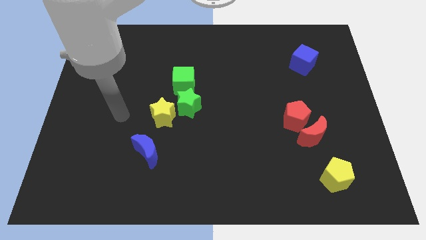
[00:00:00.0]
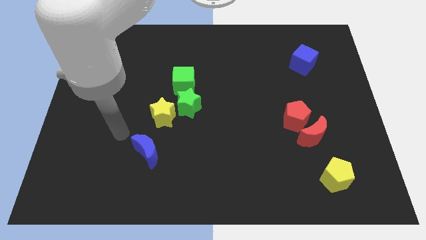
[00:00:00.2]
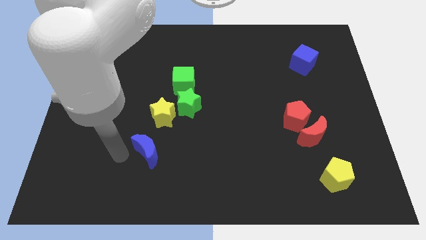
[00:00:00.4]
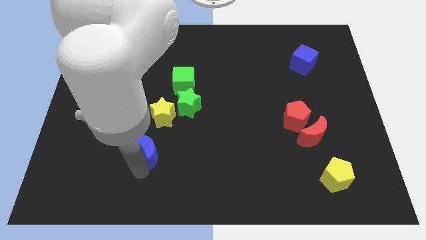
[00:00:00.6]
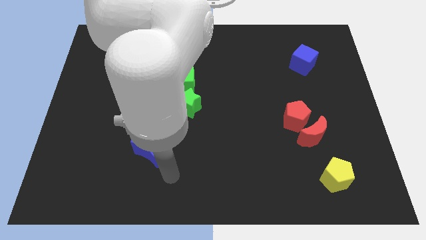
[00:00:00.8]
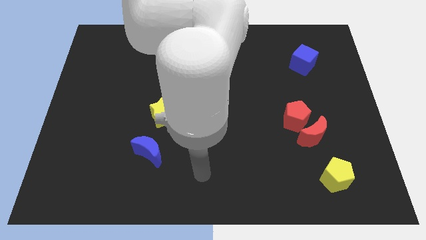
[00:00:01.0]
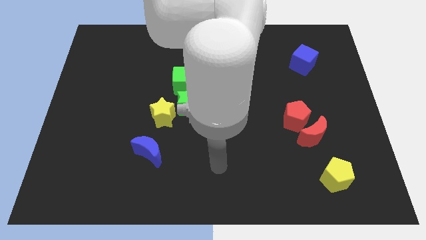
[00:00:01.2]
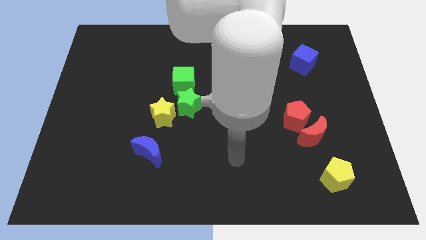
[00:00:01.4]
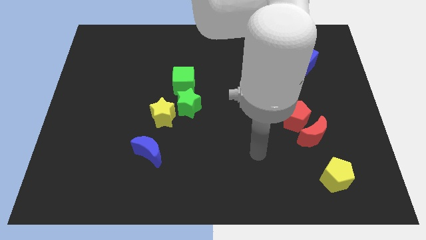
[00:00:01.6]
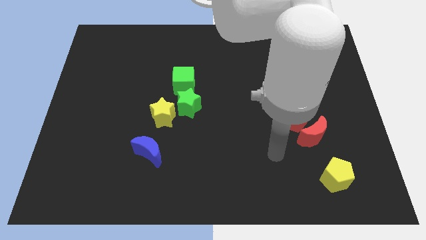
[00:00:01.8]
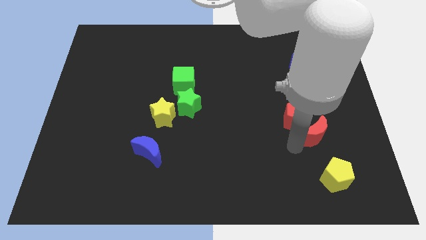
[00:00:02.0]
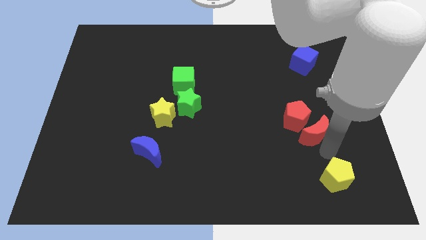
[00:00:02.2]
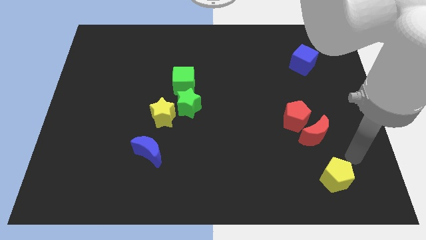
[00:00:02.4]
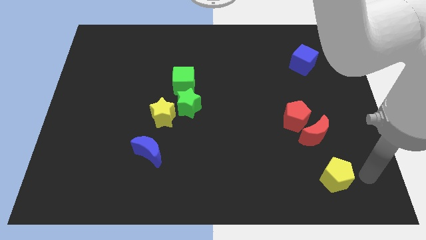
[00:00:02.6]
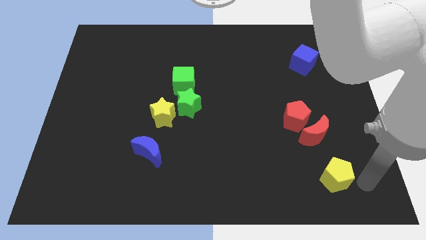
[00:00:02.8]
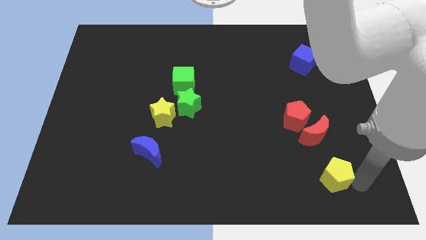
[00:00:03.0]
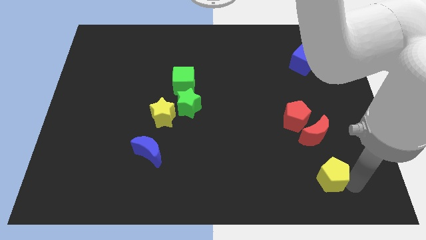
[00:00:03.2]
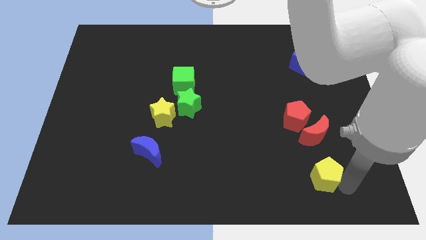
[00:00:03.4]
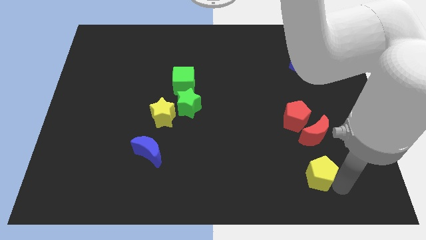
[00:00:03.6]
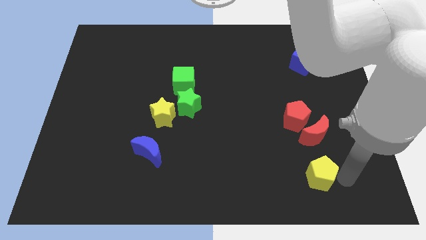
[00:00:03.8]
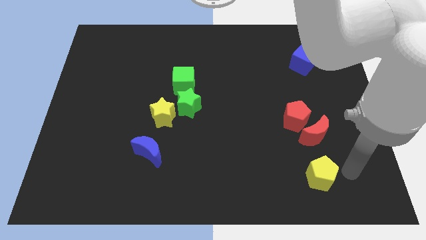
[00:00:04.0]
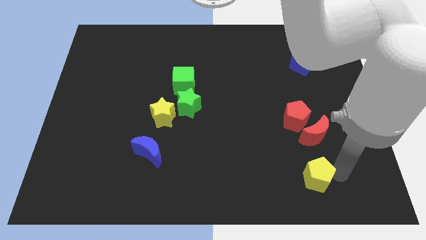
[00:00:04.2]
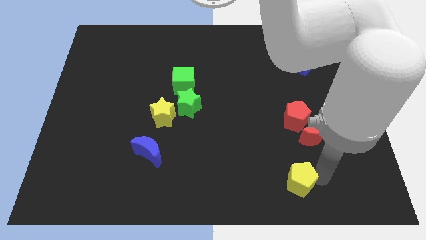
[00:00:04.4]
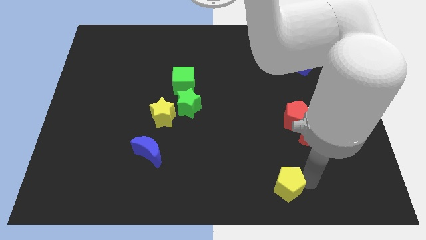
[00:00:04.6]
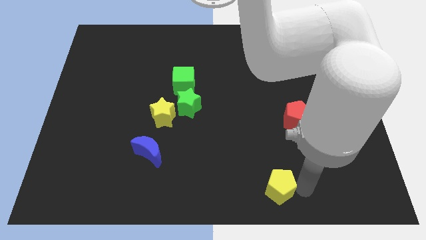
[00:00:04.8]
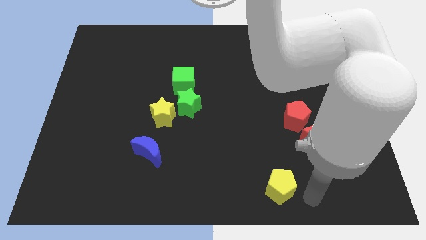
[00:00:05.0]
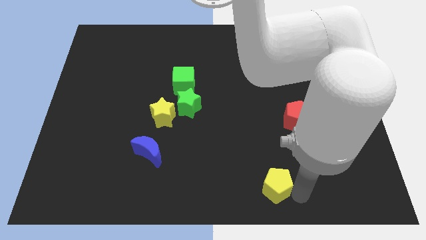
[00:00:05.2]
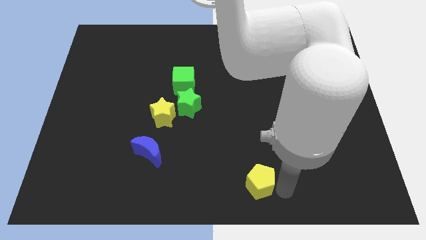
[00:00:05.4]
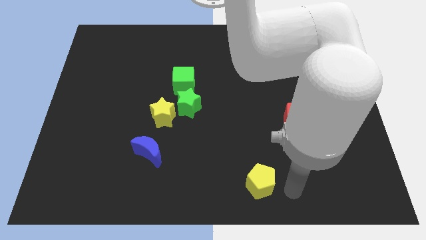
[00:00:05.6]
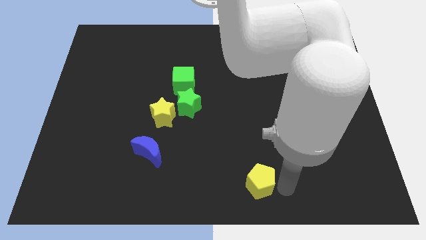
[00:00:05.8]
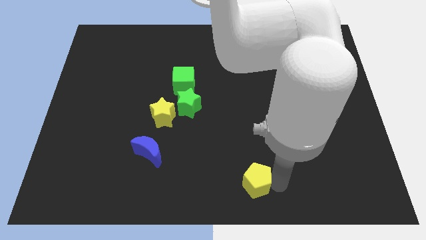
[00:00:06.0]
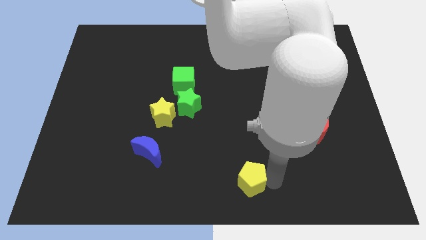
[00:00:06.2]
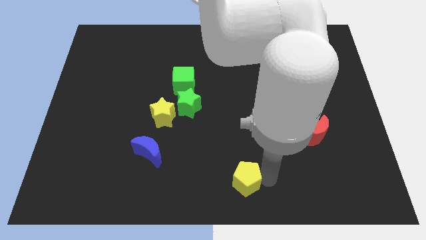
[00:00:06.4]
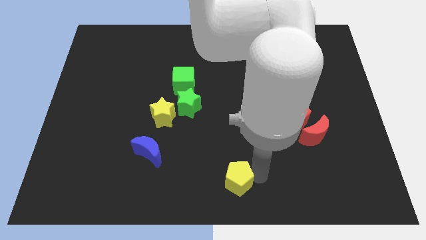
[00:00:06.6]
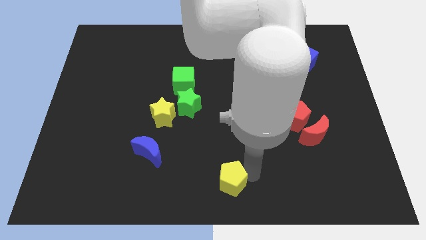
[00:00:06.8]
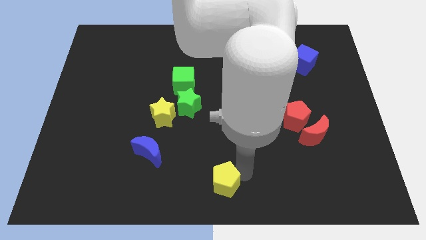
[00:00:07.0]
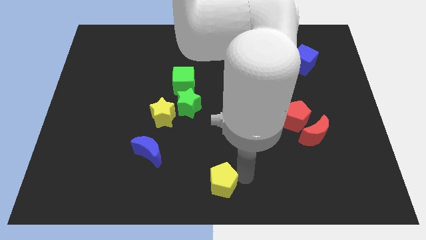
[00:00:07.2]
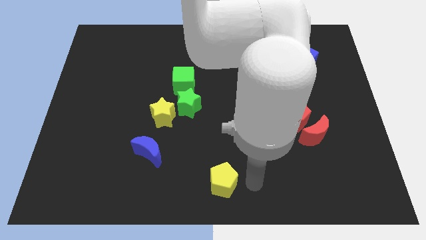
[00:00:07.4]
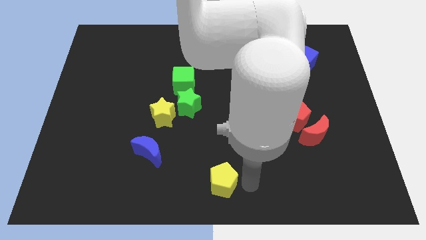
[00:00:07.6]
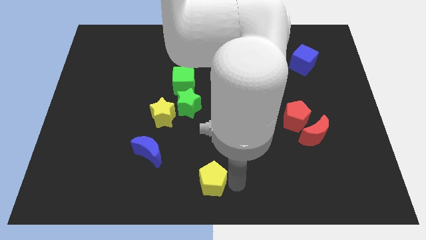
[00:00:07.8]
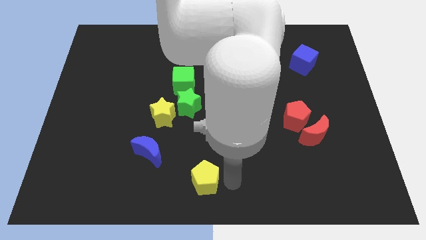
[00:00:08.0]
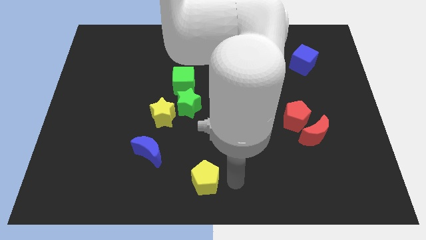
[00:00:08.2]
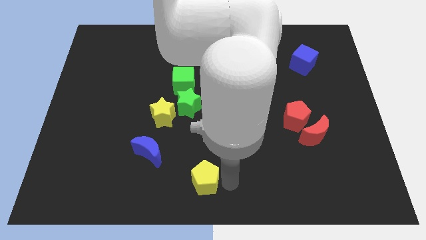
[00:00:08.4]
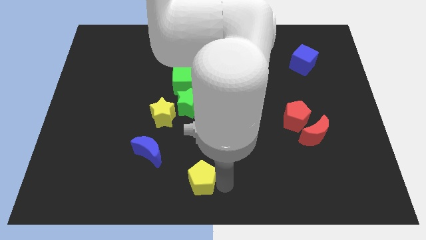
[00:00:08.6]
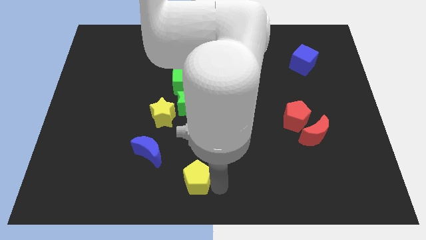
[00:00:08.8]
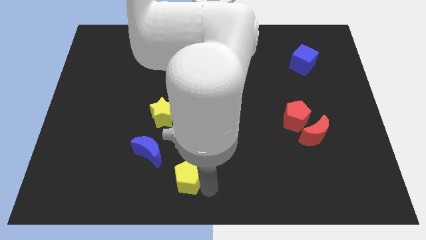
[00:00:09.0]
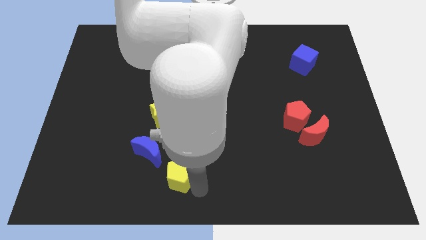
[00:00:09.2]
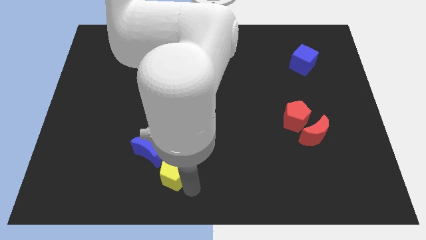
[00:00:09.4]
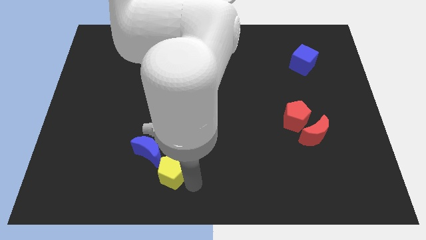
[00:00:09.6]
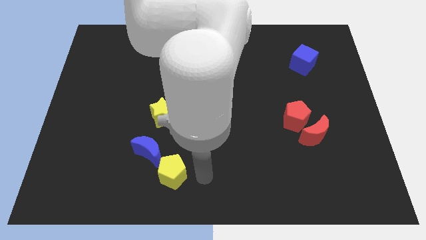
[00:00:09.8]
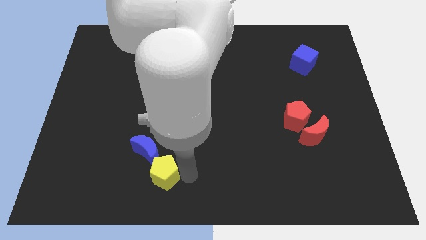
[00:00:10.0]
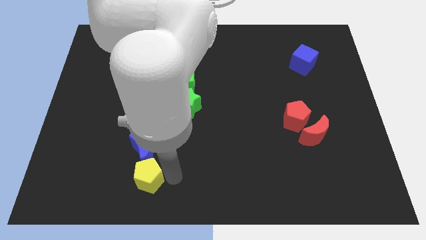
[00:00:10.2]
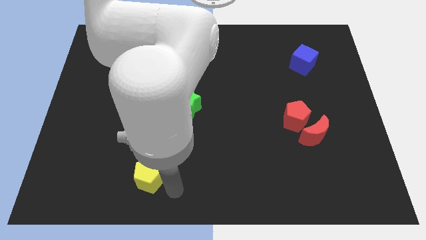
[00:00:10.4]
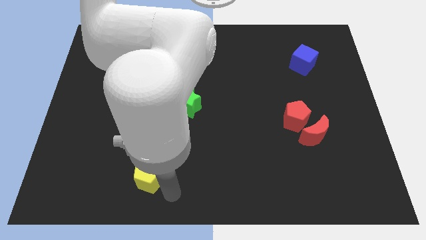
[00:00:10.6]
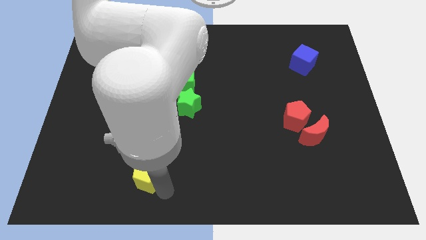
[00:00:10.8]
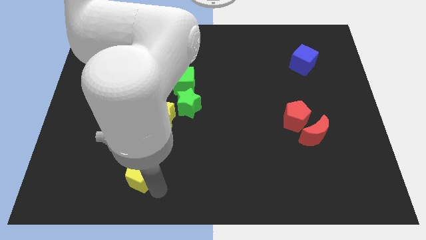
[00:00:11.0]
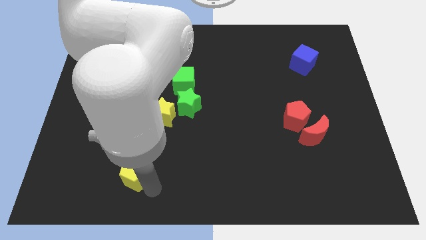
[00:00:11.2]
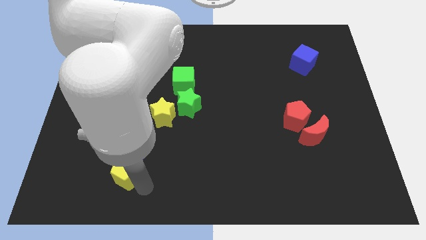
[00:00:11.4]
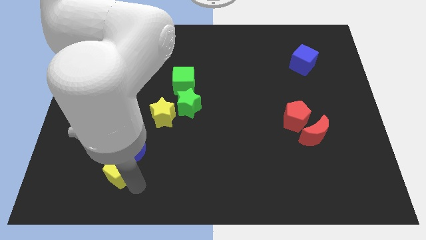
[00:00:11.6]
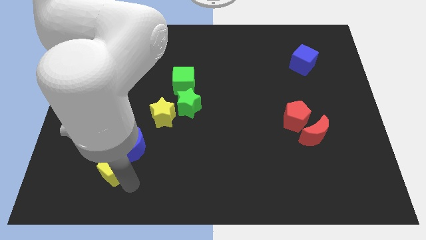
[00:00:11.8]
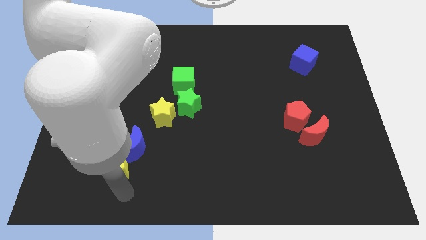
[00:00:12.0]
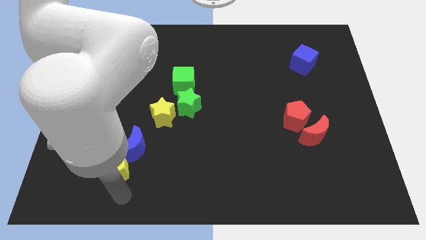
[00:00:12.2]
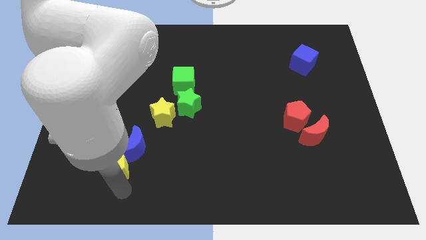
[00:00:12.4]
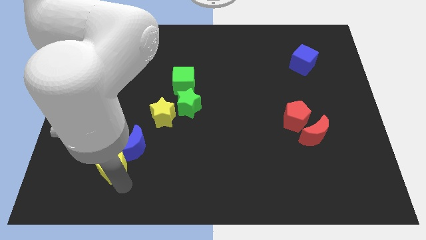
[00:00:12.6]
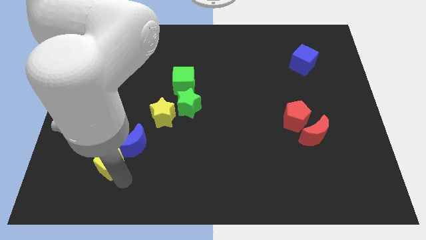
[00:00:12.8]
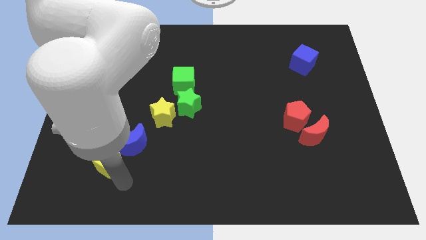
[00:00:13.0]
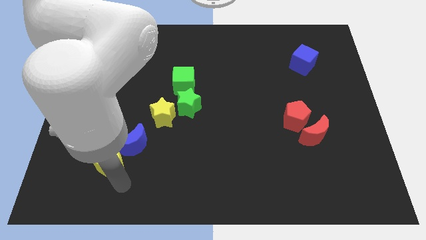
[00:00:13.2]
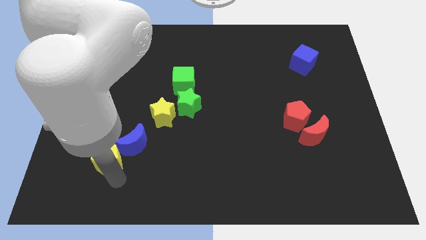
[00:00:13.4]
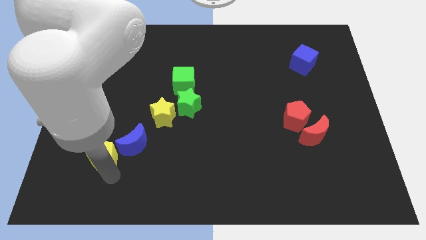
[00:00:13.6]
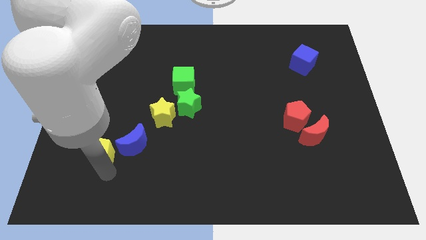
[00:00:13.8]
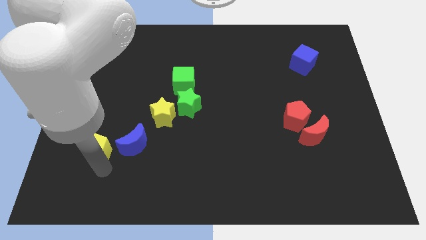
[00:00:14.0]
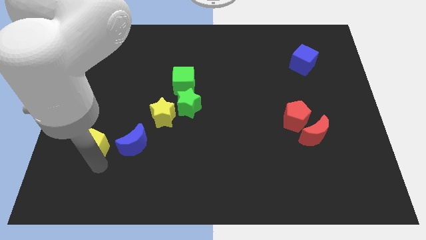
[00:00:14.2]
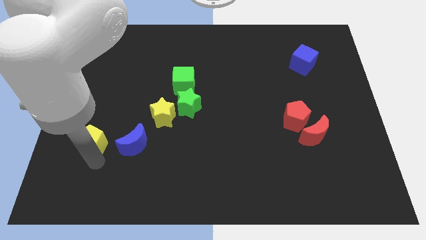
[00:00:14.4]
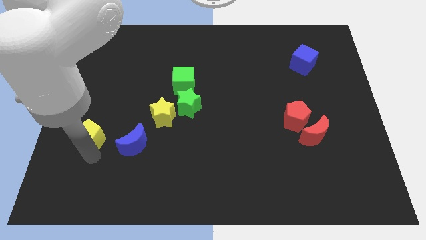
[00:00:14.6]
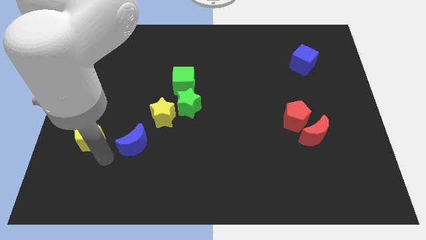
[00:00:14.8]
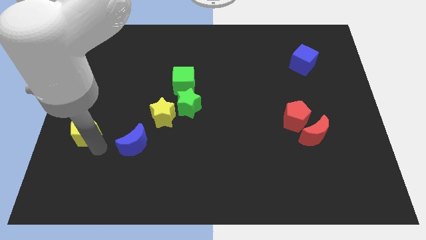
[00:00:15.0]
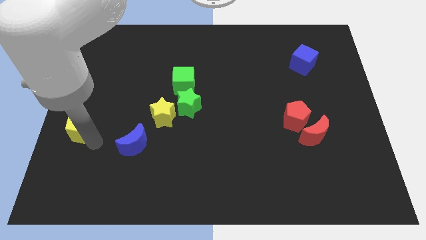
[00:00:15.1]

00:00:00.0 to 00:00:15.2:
slide the yellow pentagon to the center left

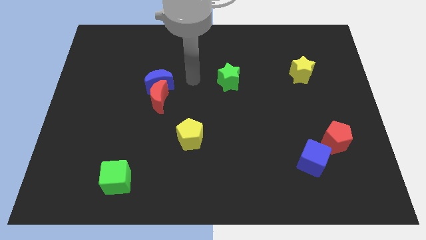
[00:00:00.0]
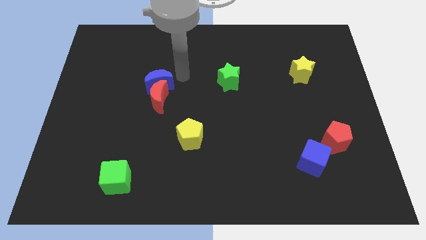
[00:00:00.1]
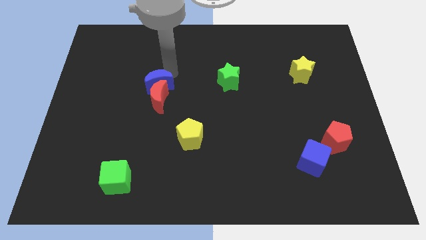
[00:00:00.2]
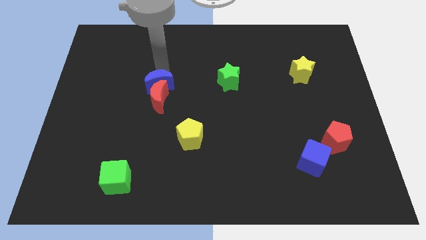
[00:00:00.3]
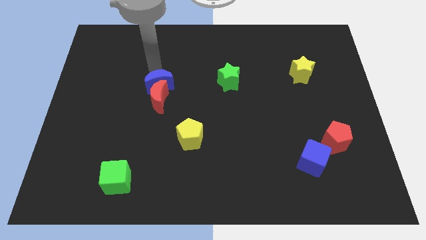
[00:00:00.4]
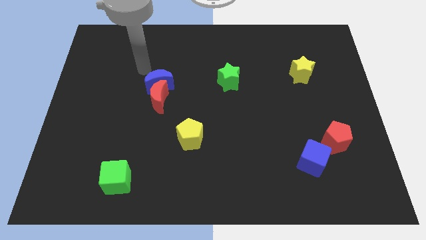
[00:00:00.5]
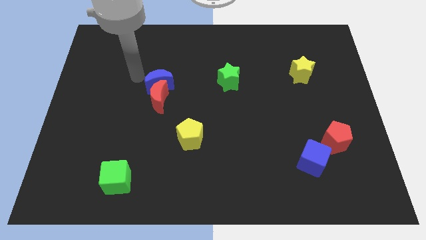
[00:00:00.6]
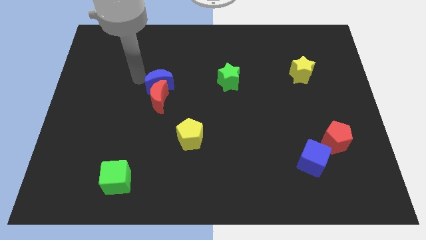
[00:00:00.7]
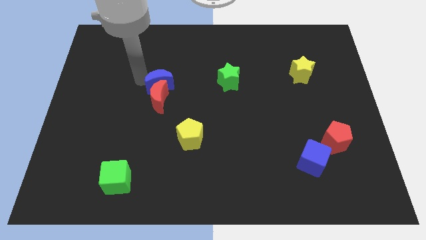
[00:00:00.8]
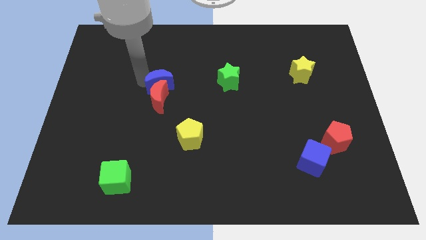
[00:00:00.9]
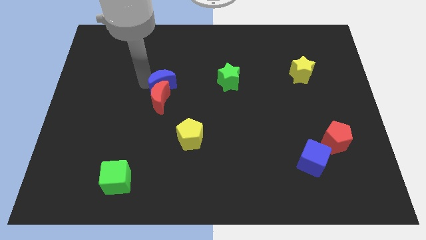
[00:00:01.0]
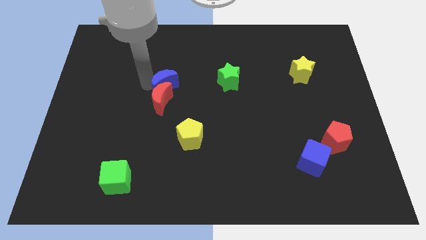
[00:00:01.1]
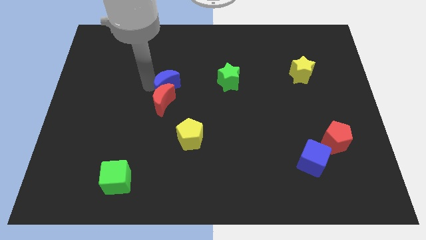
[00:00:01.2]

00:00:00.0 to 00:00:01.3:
move the blue moon to the center
